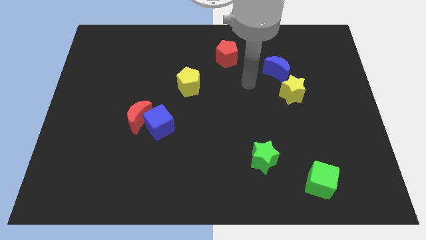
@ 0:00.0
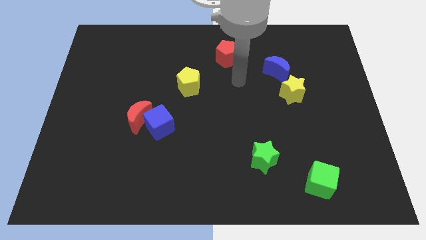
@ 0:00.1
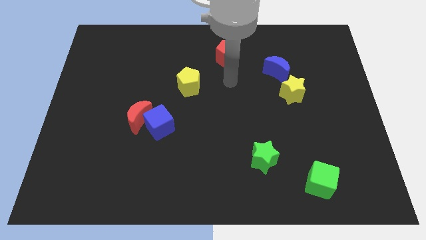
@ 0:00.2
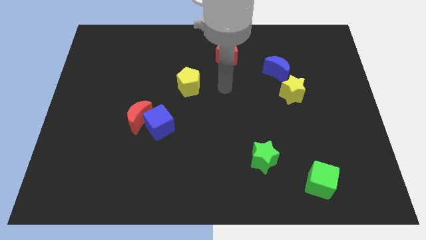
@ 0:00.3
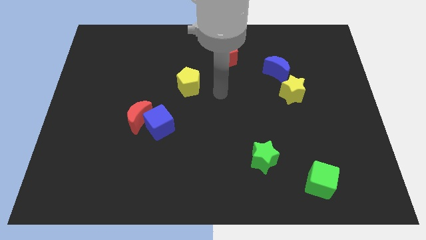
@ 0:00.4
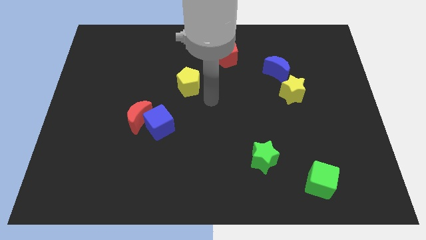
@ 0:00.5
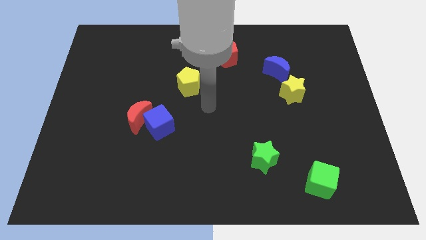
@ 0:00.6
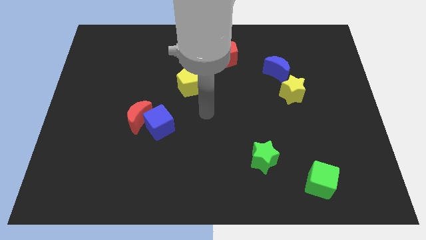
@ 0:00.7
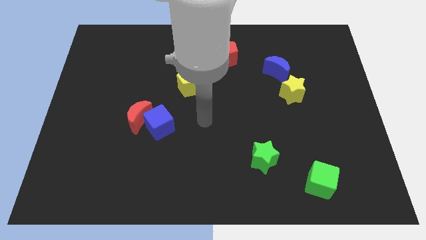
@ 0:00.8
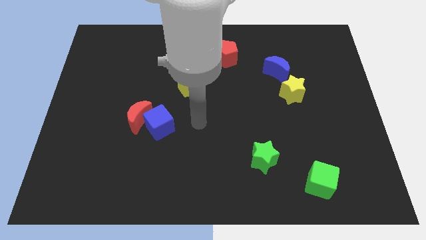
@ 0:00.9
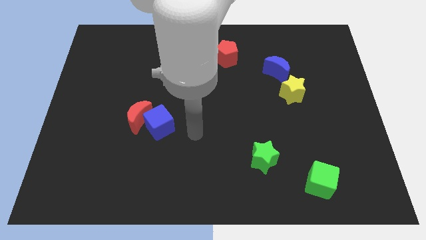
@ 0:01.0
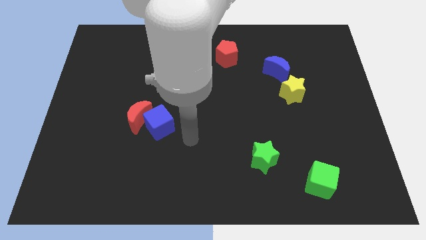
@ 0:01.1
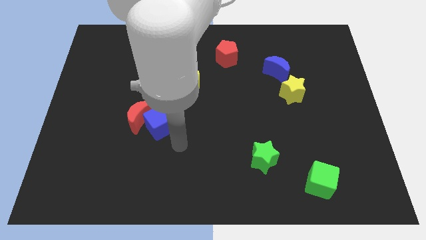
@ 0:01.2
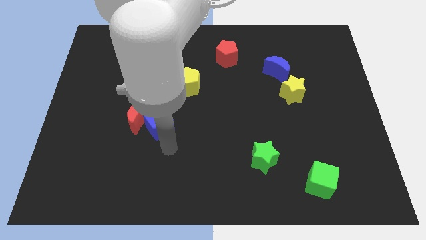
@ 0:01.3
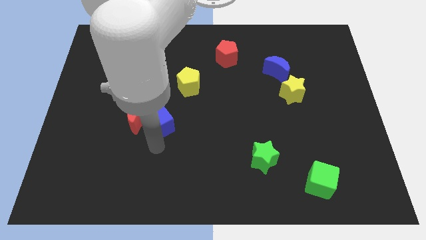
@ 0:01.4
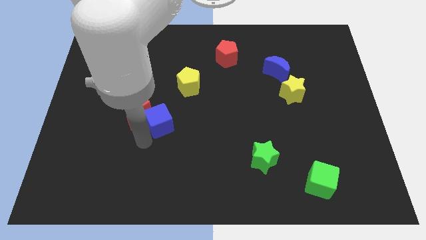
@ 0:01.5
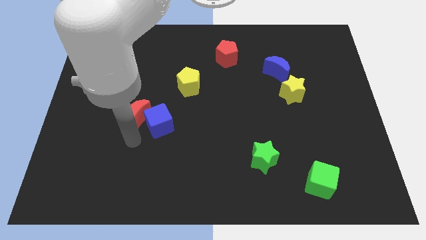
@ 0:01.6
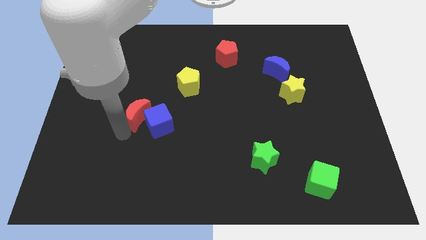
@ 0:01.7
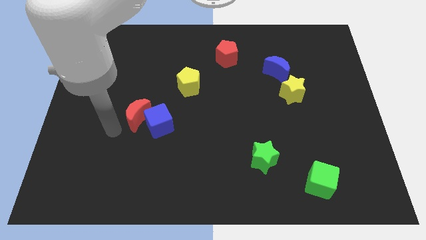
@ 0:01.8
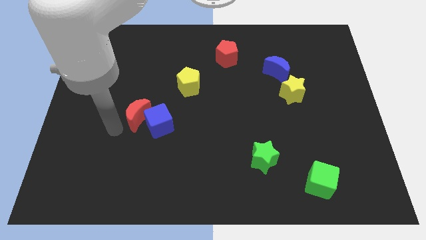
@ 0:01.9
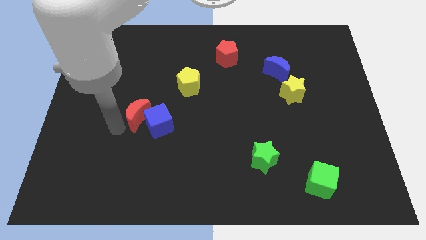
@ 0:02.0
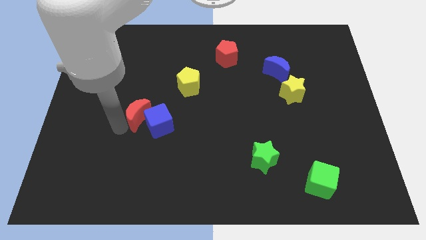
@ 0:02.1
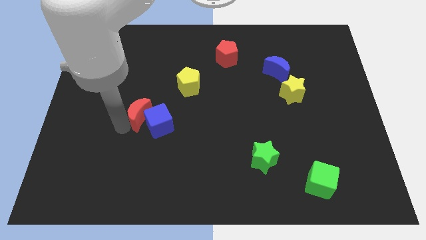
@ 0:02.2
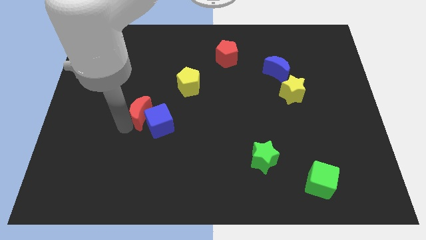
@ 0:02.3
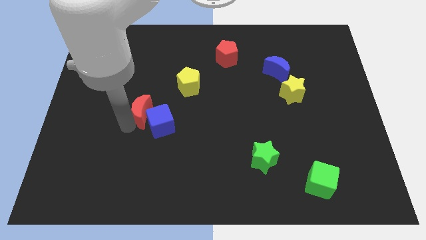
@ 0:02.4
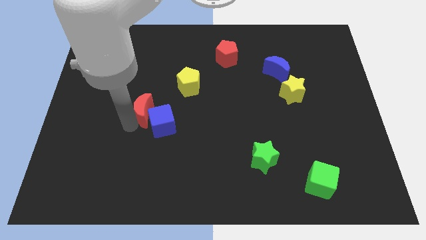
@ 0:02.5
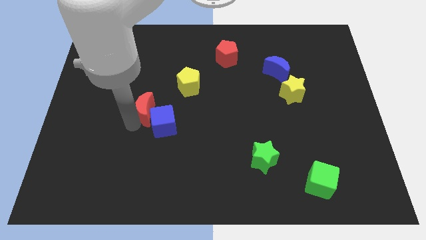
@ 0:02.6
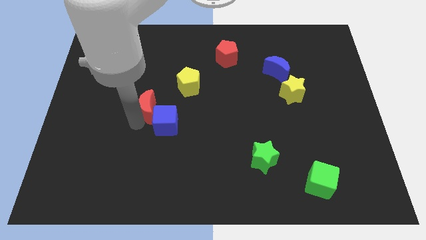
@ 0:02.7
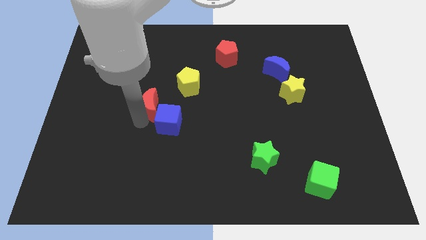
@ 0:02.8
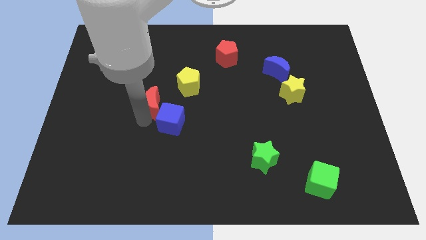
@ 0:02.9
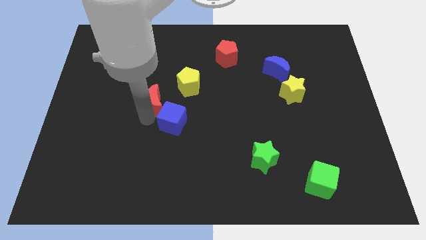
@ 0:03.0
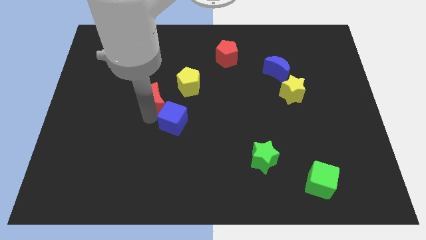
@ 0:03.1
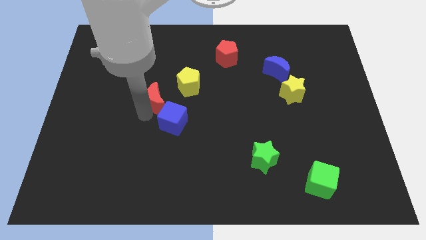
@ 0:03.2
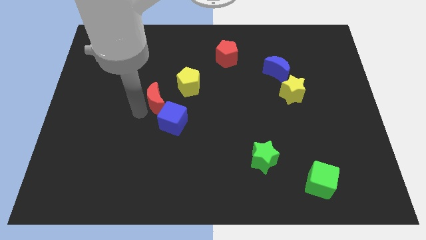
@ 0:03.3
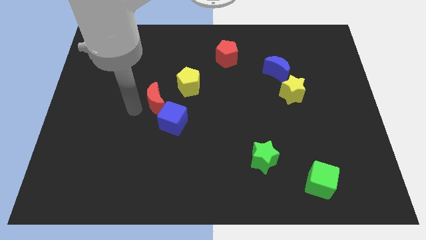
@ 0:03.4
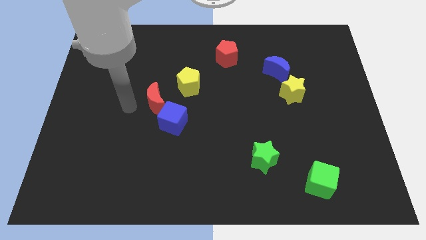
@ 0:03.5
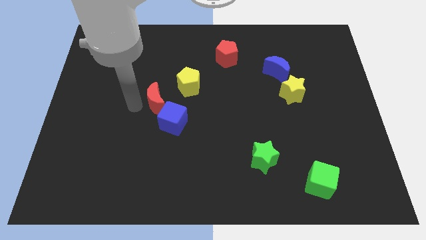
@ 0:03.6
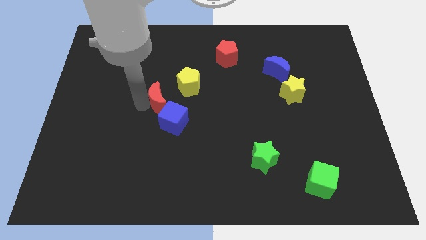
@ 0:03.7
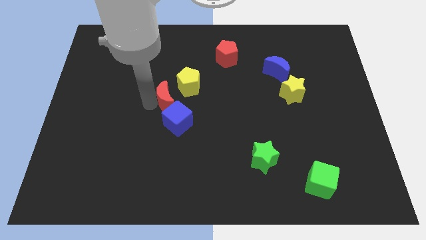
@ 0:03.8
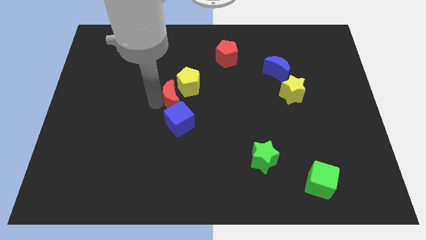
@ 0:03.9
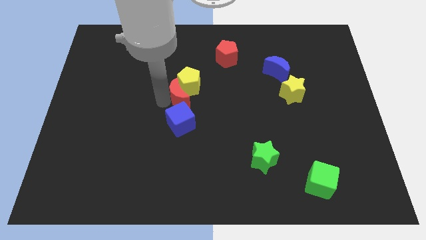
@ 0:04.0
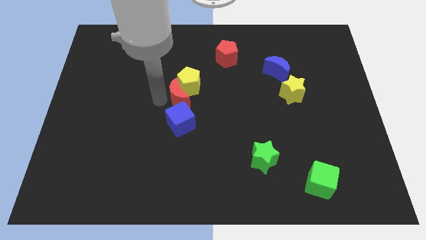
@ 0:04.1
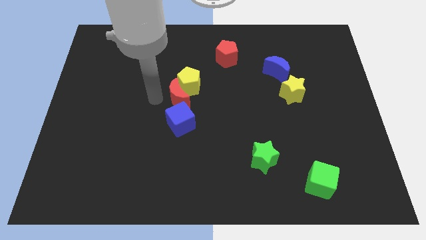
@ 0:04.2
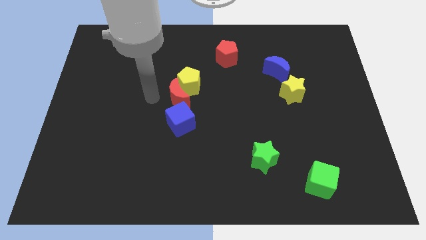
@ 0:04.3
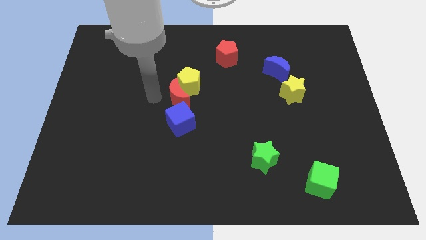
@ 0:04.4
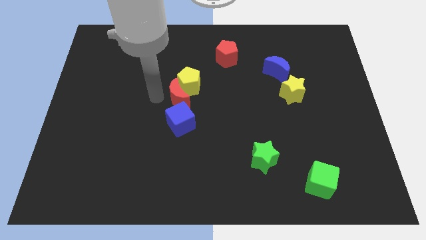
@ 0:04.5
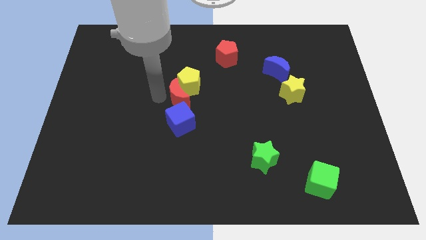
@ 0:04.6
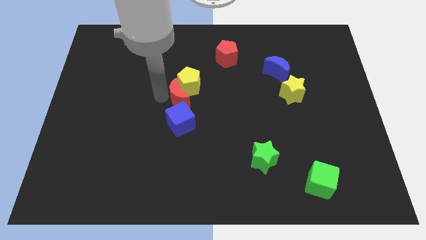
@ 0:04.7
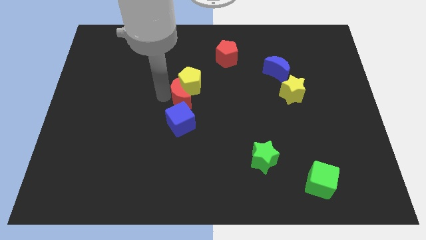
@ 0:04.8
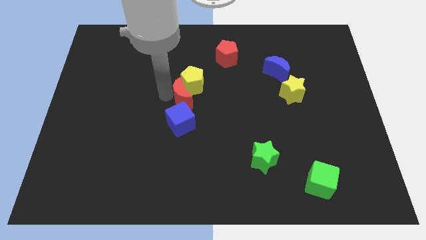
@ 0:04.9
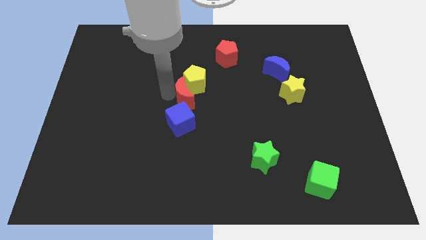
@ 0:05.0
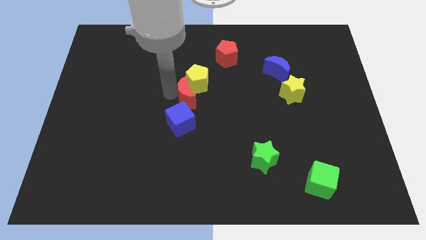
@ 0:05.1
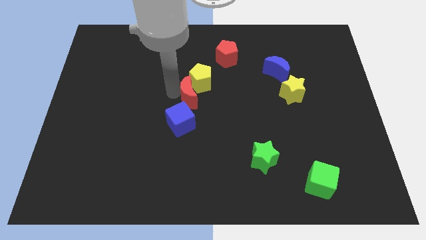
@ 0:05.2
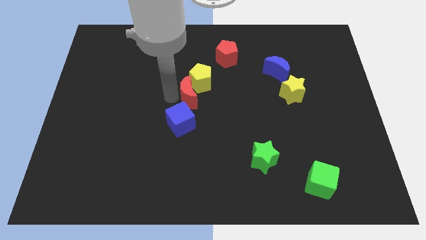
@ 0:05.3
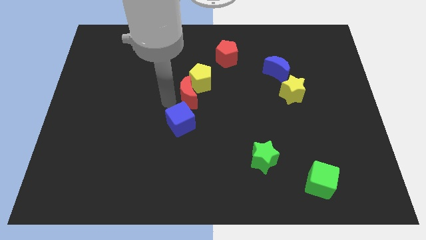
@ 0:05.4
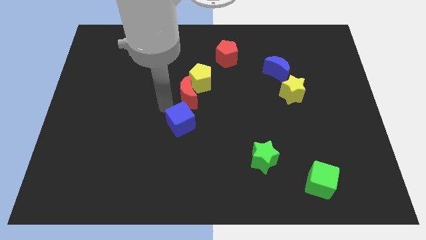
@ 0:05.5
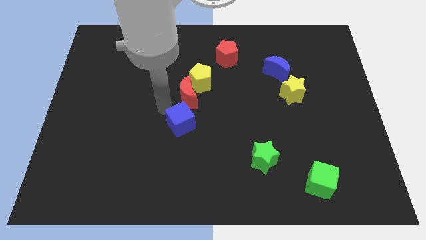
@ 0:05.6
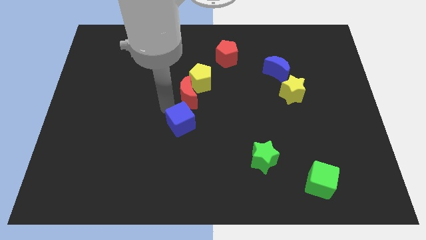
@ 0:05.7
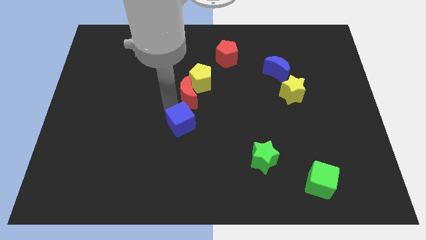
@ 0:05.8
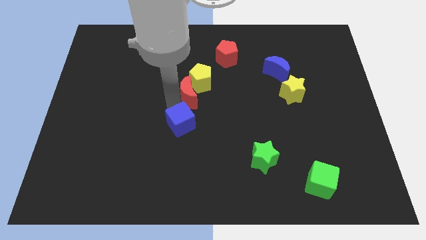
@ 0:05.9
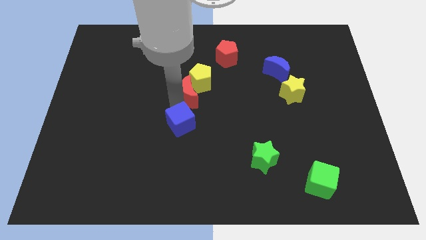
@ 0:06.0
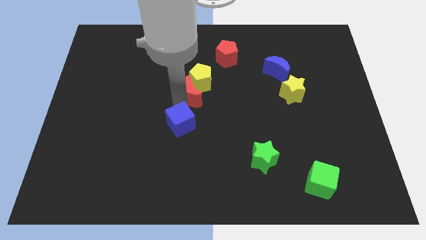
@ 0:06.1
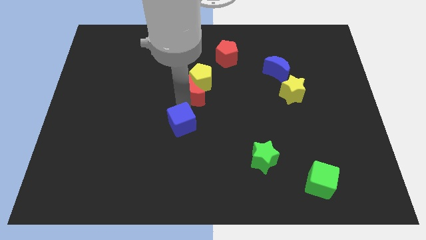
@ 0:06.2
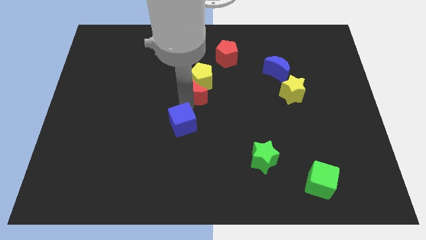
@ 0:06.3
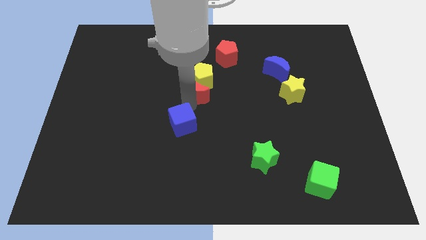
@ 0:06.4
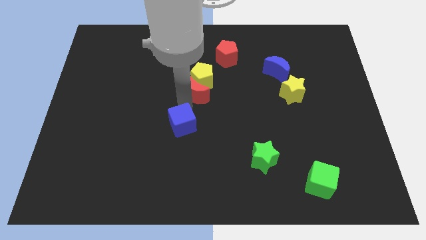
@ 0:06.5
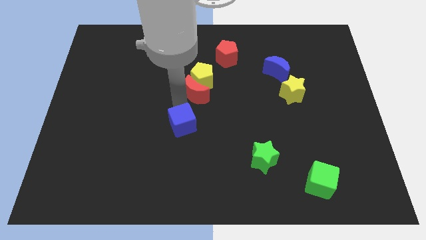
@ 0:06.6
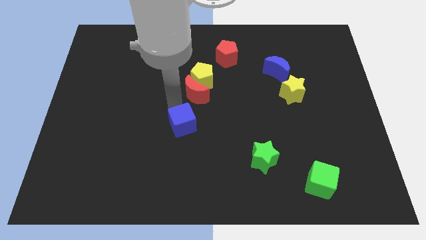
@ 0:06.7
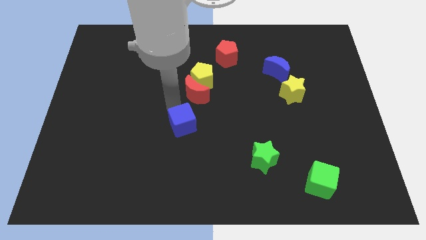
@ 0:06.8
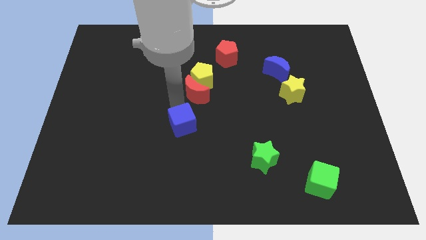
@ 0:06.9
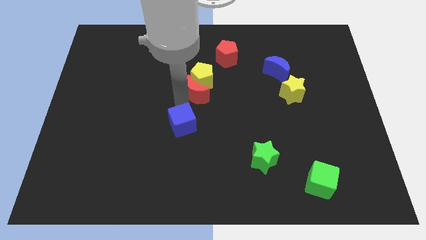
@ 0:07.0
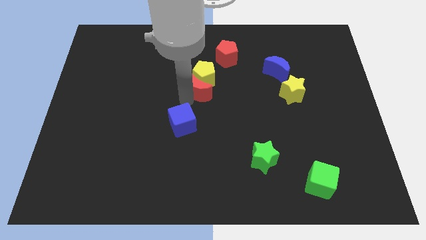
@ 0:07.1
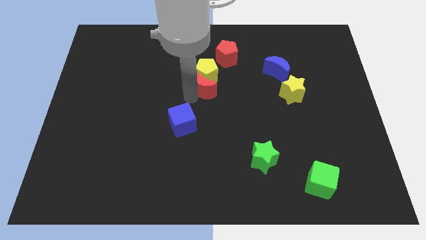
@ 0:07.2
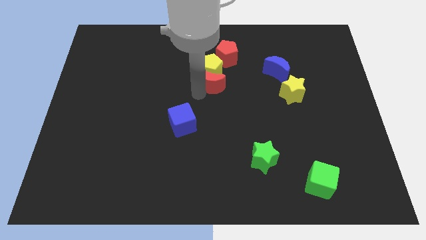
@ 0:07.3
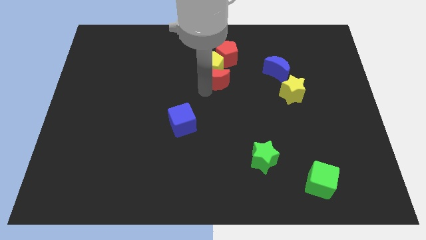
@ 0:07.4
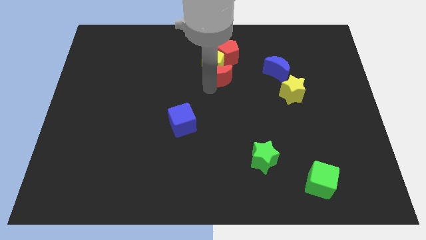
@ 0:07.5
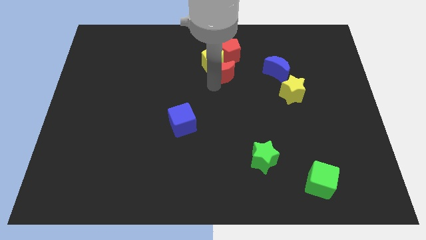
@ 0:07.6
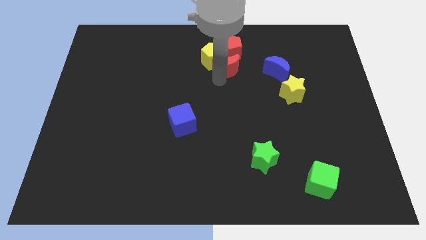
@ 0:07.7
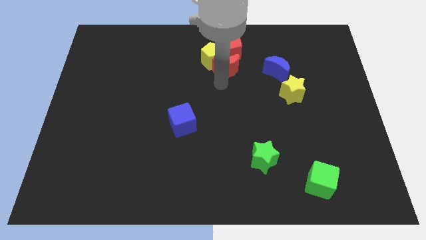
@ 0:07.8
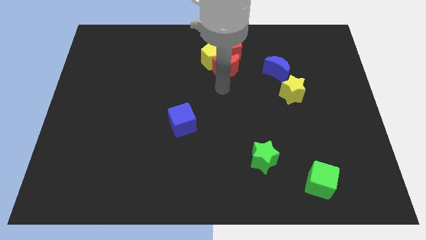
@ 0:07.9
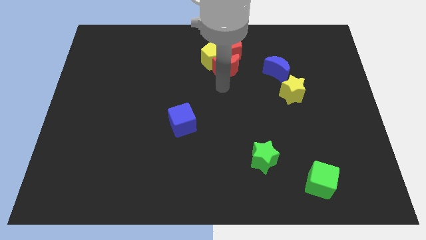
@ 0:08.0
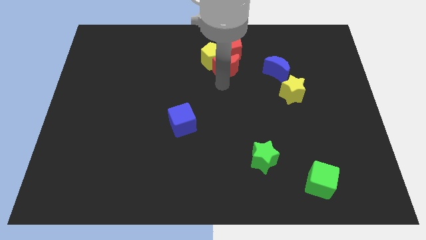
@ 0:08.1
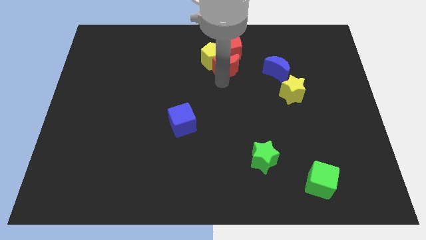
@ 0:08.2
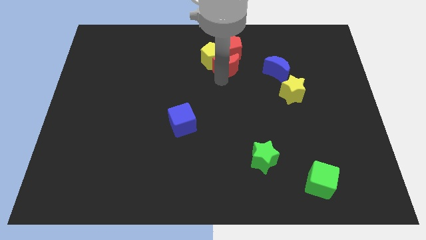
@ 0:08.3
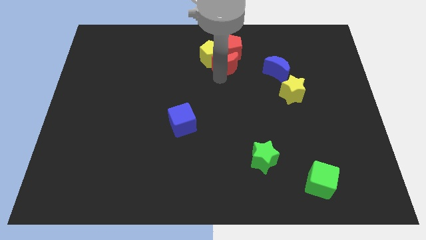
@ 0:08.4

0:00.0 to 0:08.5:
put the red moon next to the red pentagon
